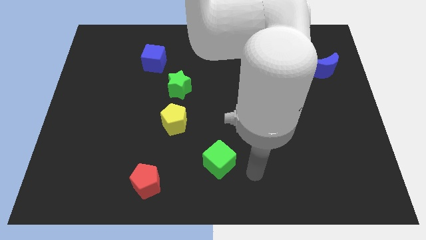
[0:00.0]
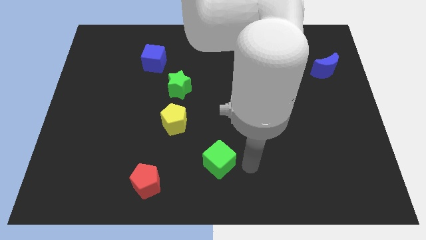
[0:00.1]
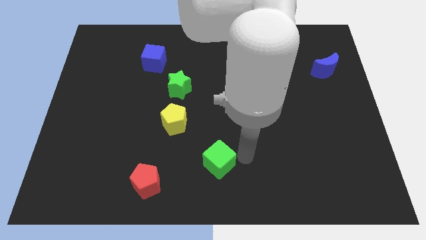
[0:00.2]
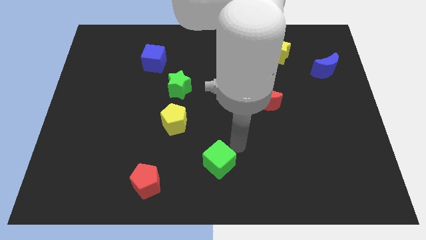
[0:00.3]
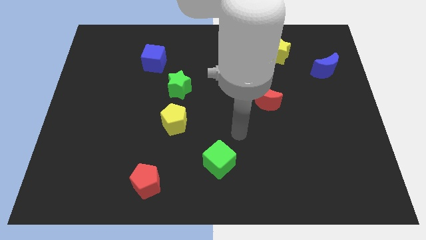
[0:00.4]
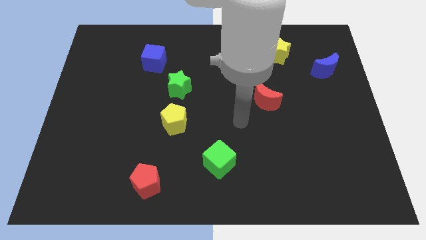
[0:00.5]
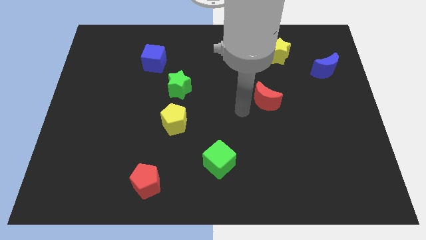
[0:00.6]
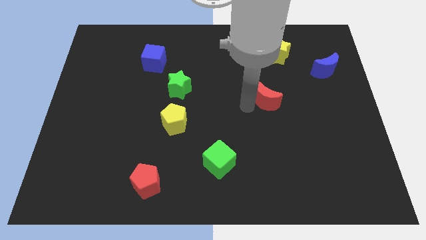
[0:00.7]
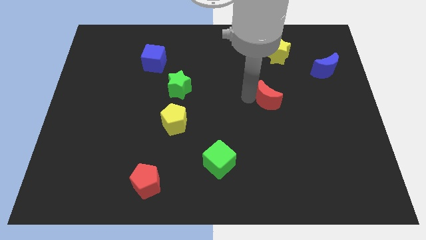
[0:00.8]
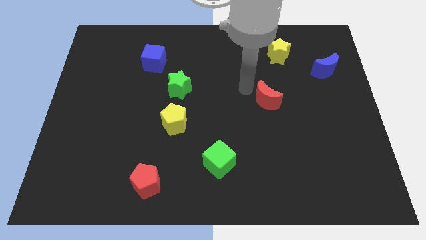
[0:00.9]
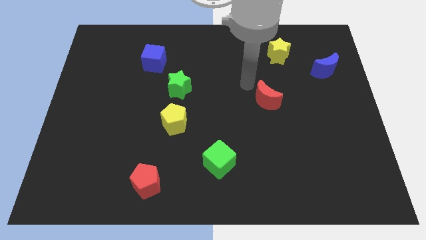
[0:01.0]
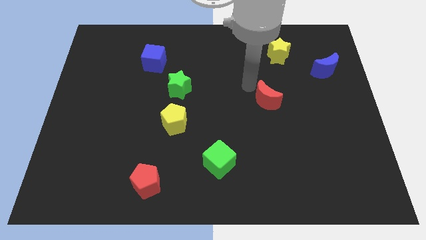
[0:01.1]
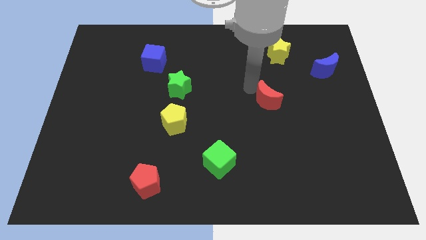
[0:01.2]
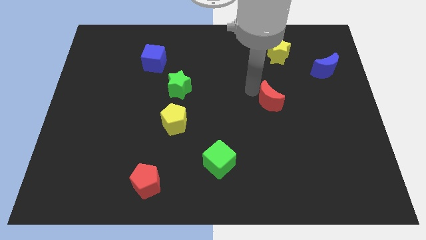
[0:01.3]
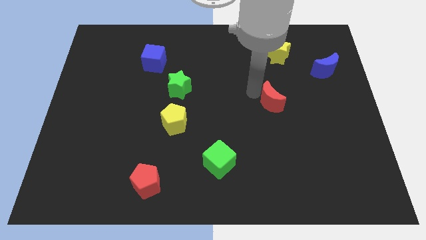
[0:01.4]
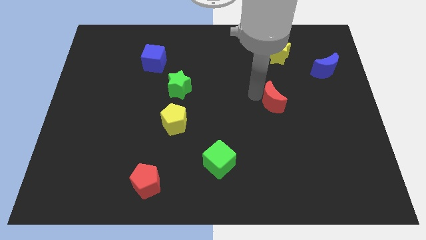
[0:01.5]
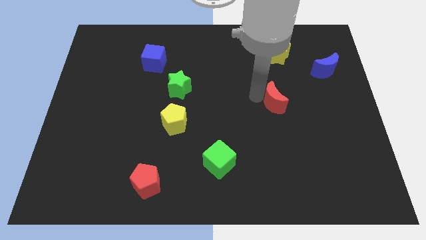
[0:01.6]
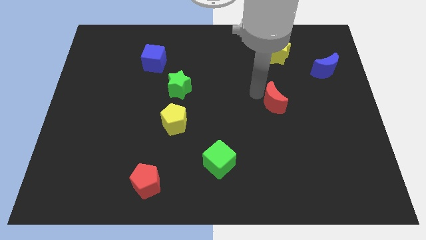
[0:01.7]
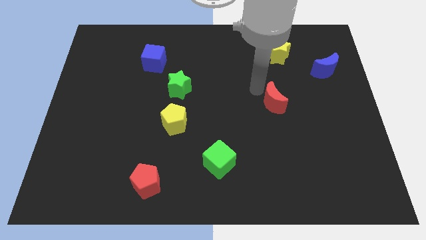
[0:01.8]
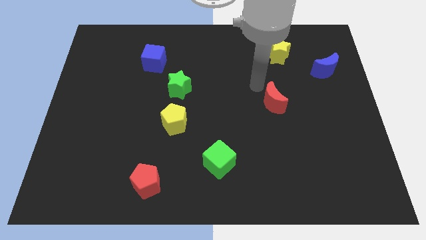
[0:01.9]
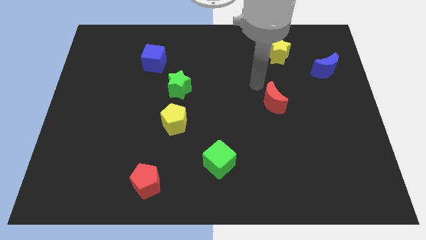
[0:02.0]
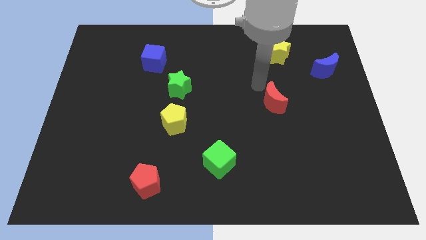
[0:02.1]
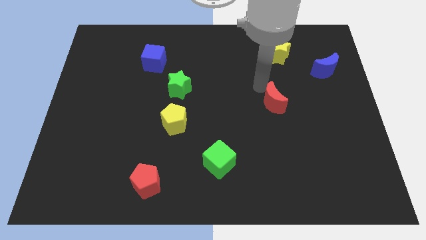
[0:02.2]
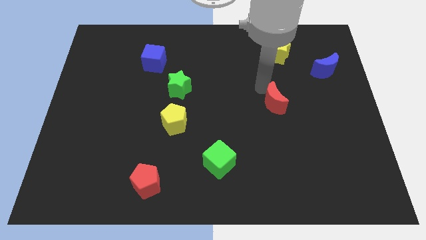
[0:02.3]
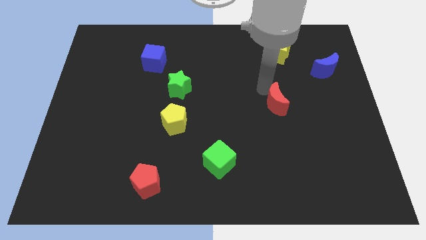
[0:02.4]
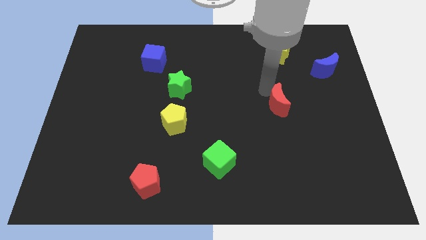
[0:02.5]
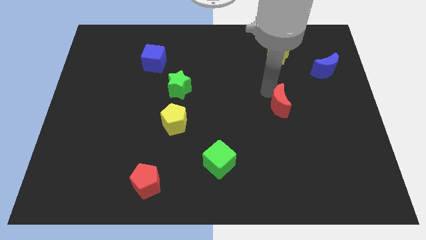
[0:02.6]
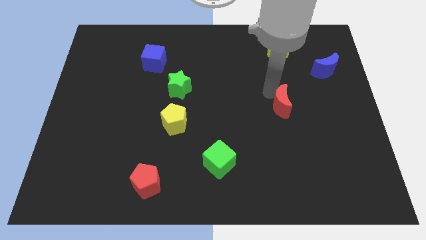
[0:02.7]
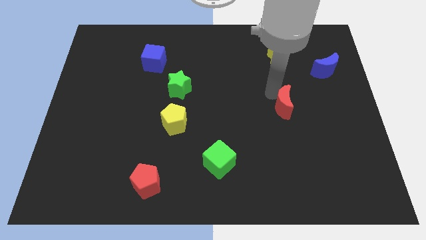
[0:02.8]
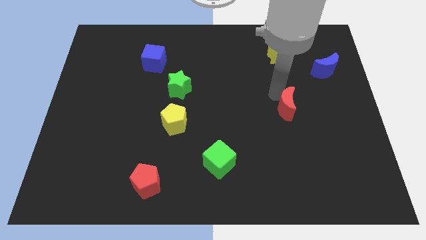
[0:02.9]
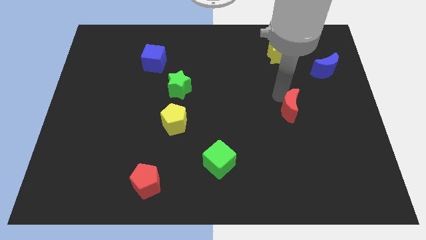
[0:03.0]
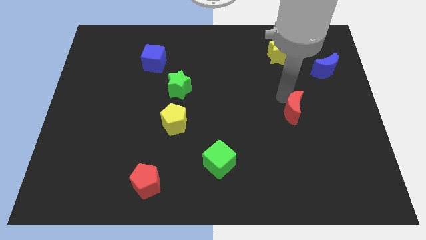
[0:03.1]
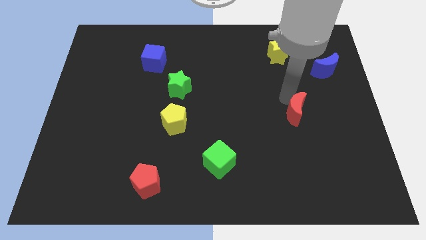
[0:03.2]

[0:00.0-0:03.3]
slide the red moon a little bit downwards and then to the right

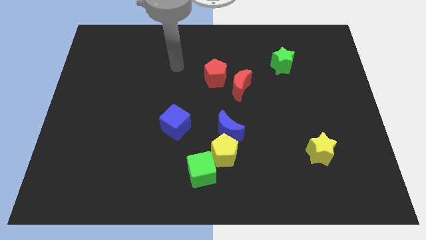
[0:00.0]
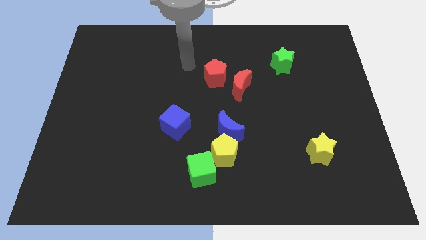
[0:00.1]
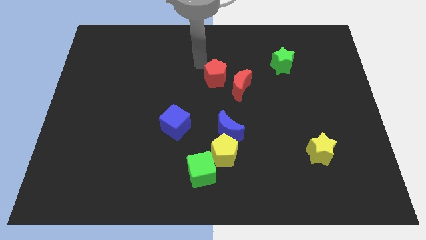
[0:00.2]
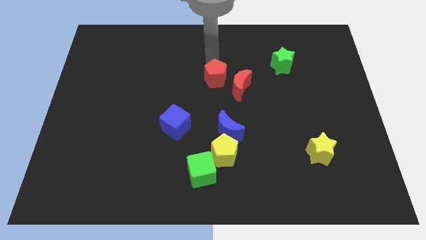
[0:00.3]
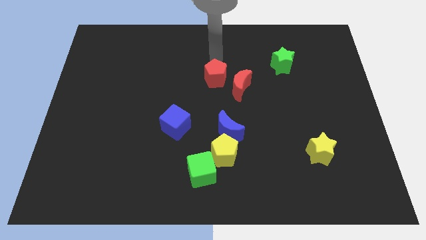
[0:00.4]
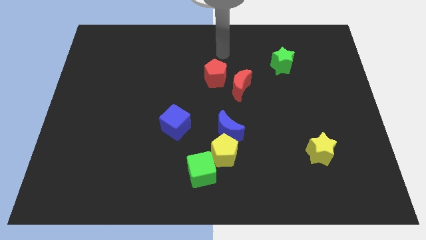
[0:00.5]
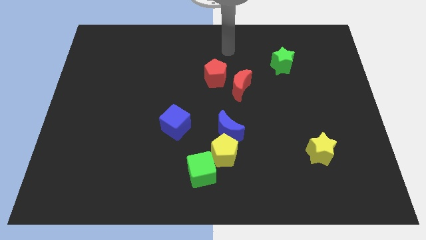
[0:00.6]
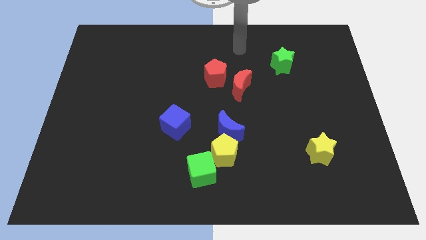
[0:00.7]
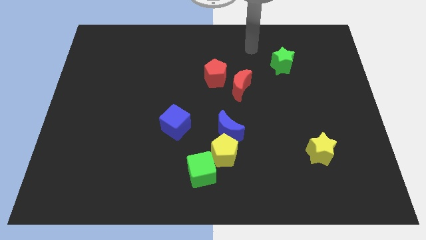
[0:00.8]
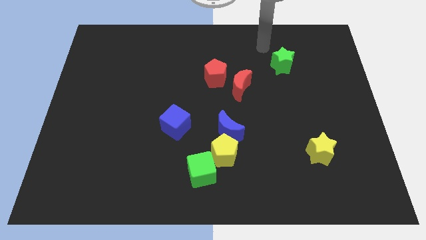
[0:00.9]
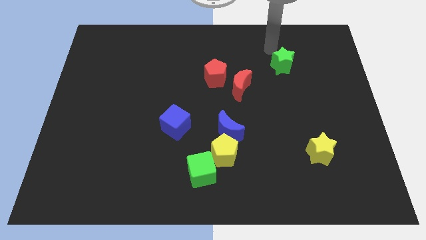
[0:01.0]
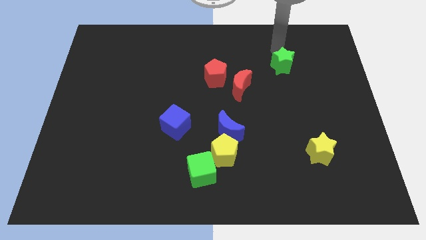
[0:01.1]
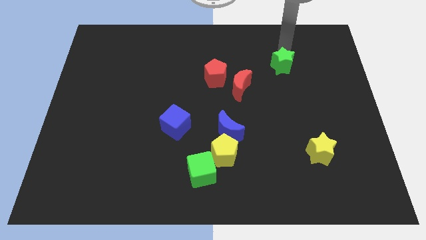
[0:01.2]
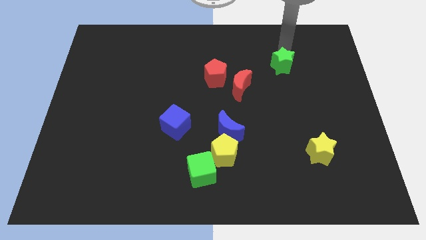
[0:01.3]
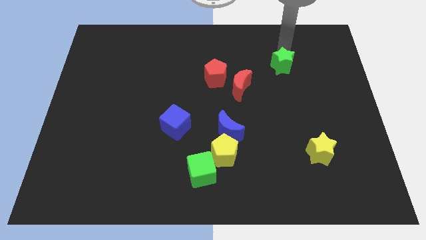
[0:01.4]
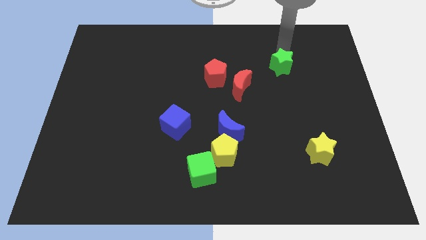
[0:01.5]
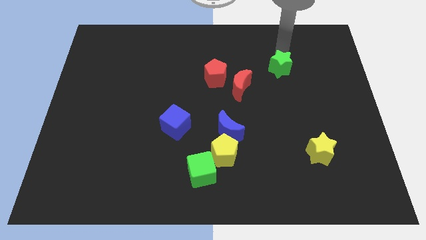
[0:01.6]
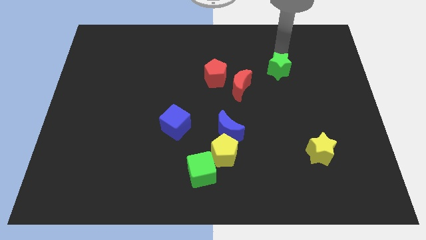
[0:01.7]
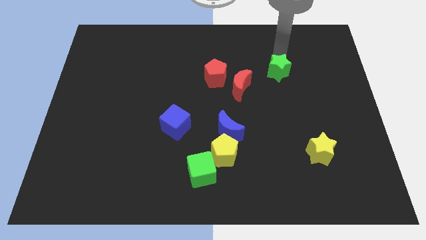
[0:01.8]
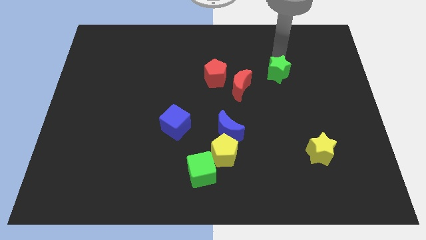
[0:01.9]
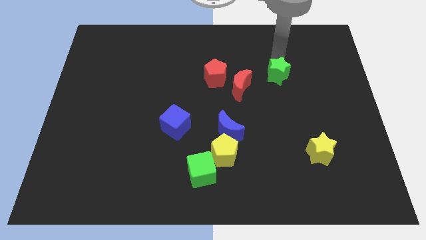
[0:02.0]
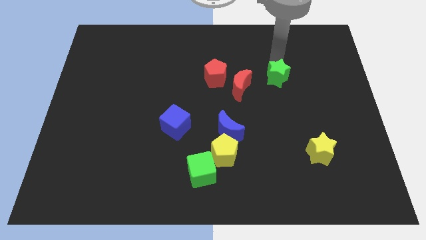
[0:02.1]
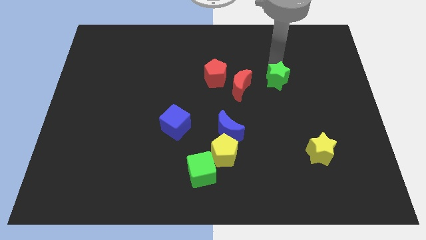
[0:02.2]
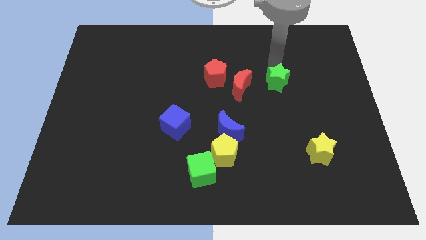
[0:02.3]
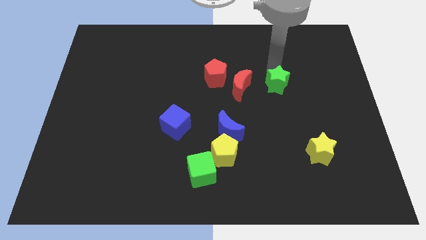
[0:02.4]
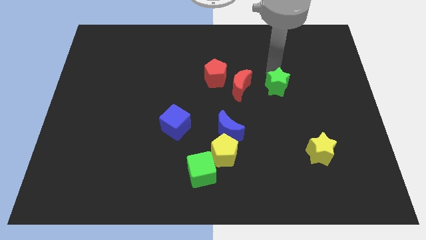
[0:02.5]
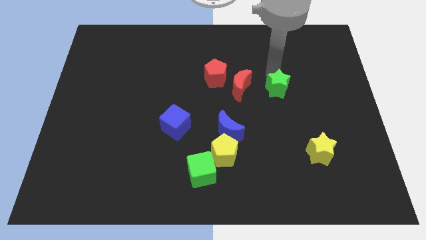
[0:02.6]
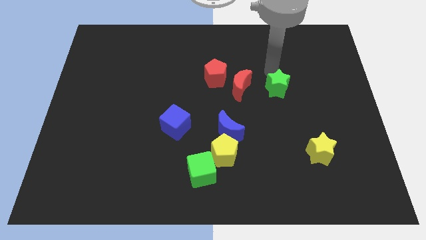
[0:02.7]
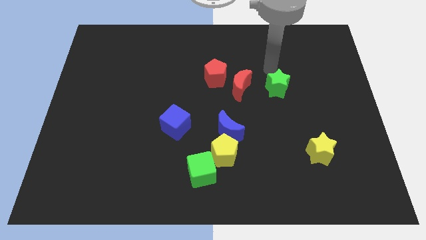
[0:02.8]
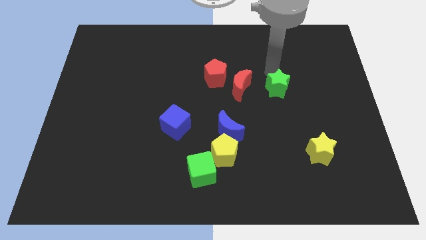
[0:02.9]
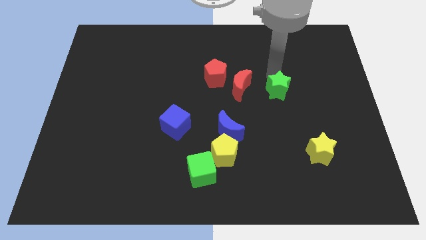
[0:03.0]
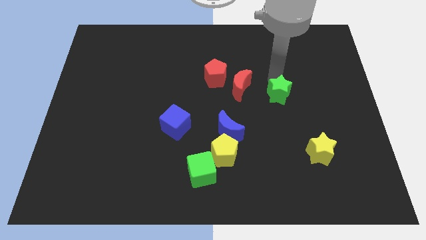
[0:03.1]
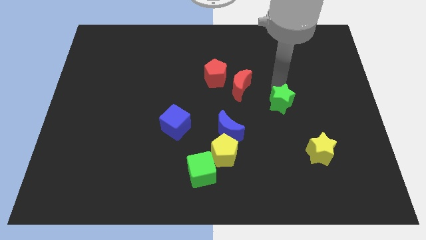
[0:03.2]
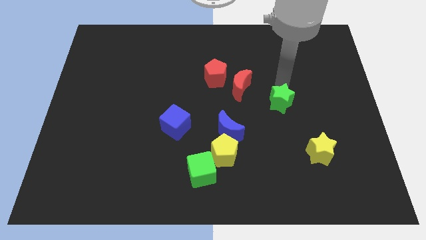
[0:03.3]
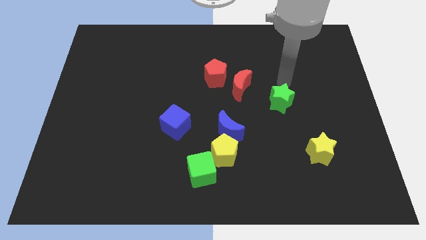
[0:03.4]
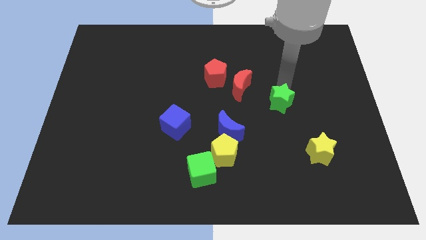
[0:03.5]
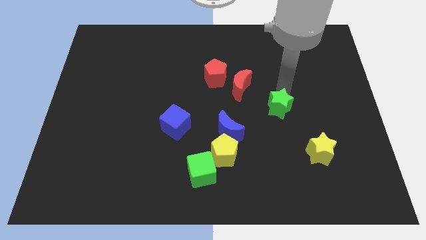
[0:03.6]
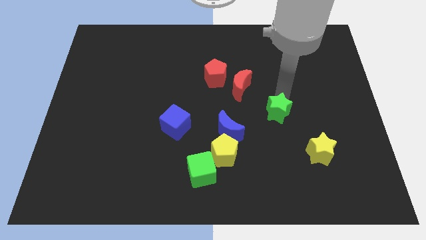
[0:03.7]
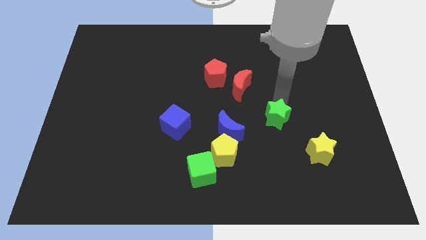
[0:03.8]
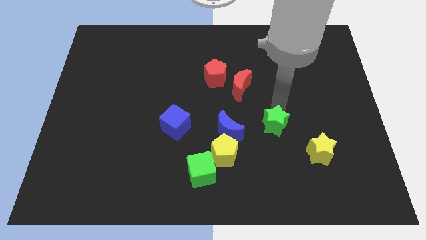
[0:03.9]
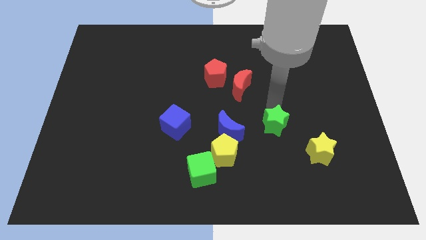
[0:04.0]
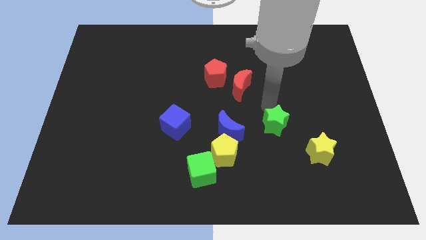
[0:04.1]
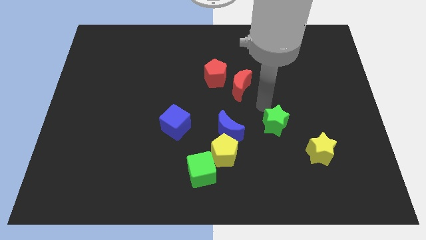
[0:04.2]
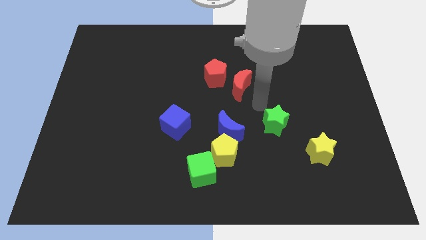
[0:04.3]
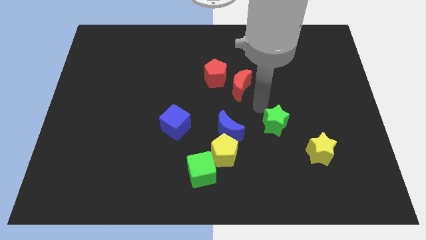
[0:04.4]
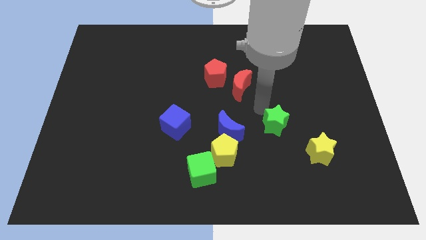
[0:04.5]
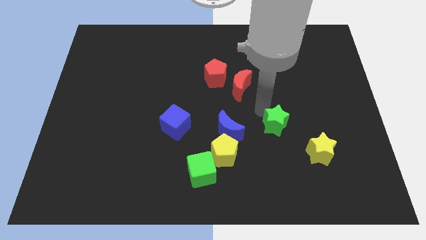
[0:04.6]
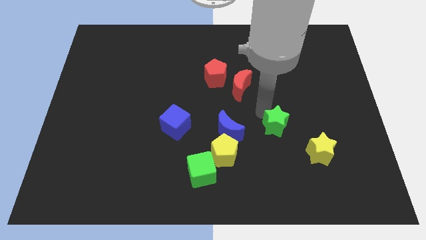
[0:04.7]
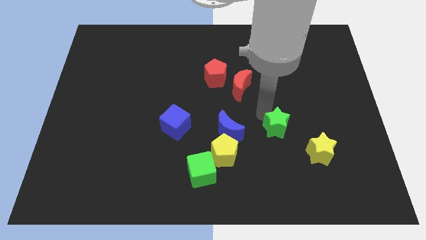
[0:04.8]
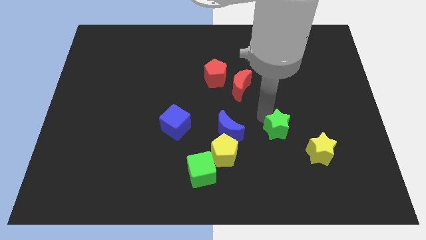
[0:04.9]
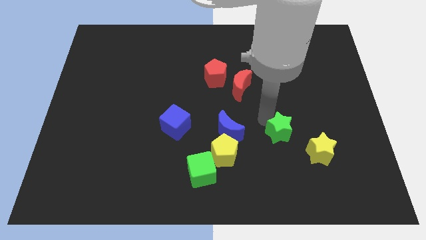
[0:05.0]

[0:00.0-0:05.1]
slide the green star downwards
